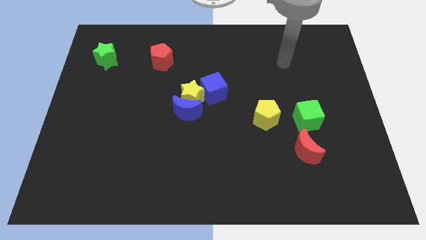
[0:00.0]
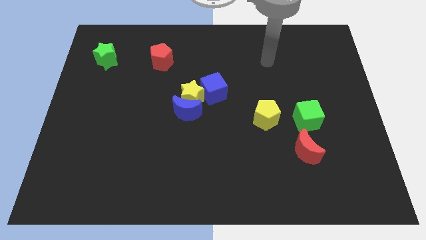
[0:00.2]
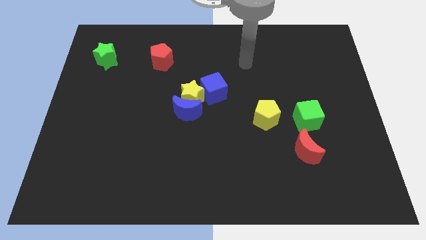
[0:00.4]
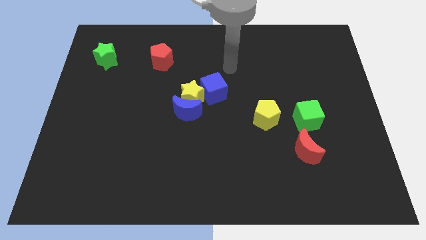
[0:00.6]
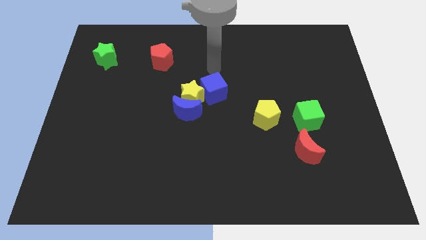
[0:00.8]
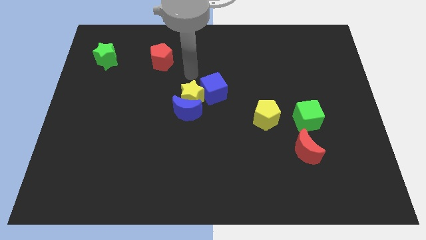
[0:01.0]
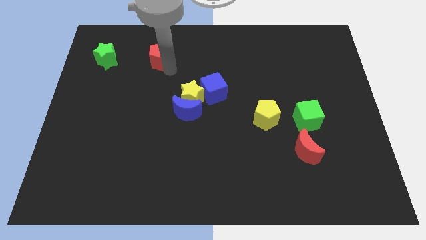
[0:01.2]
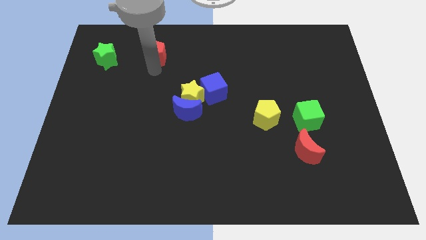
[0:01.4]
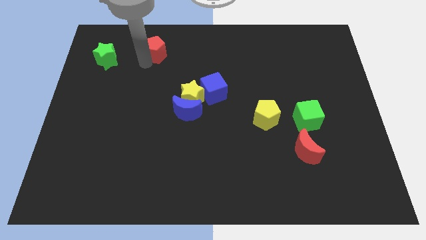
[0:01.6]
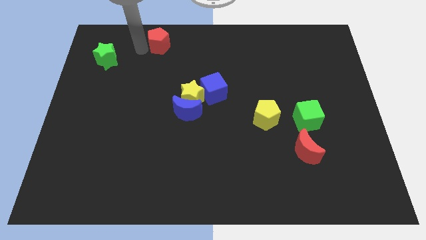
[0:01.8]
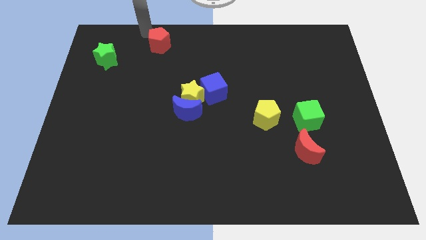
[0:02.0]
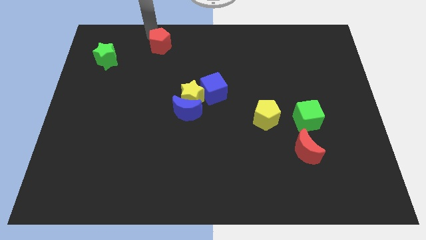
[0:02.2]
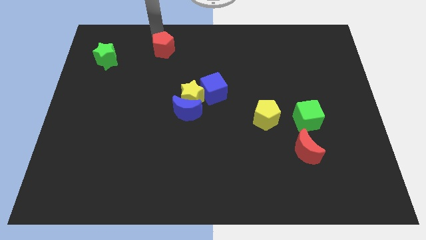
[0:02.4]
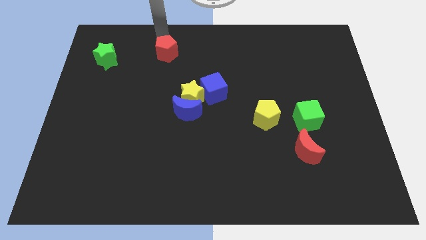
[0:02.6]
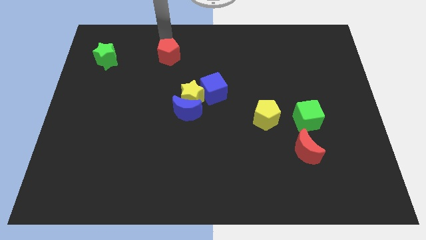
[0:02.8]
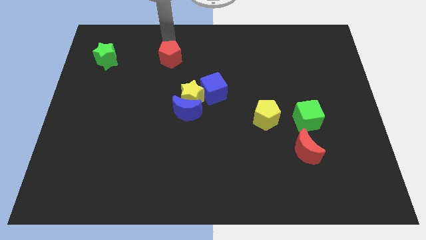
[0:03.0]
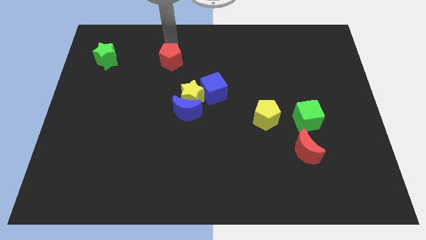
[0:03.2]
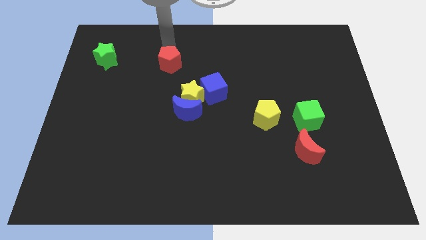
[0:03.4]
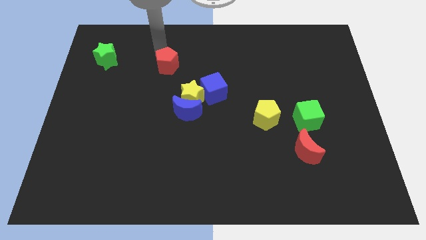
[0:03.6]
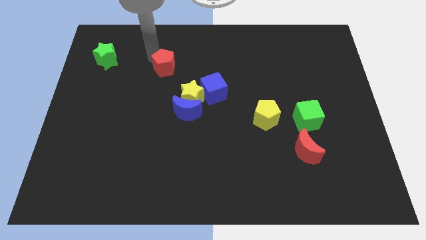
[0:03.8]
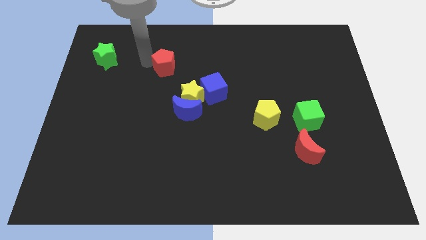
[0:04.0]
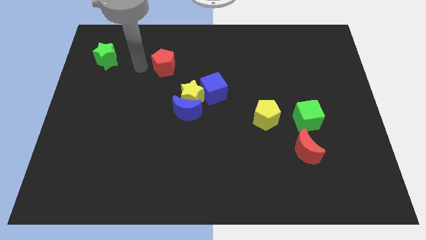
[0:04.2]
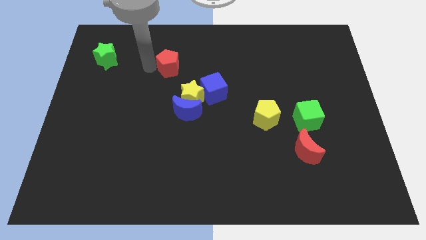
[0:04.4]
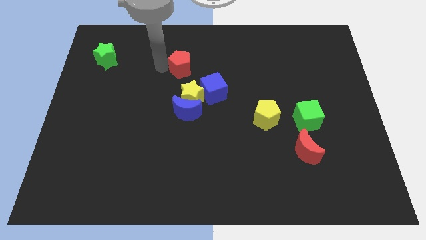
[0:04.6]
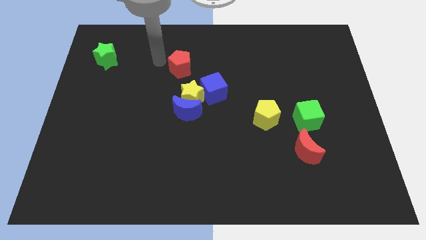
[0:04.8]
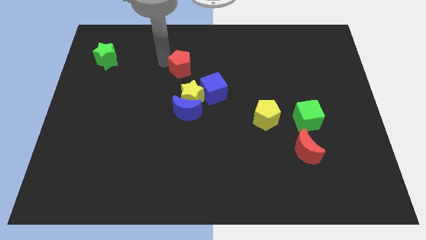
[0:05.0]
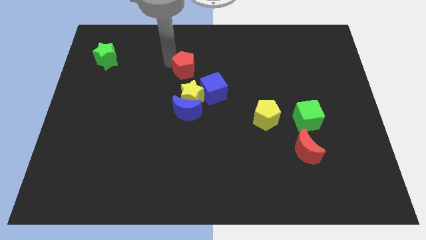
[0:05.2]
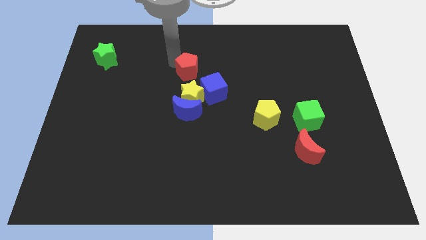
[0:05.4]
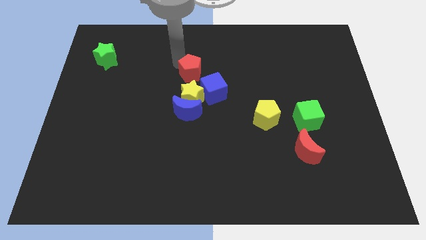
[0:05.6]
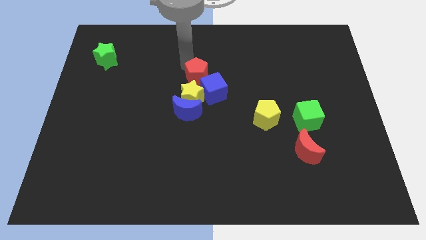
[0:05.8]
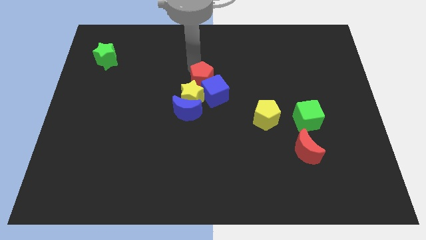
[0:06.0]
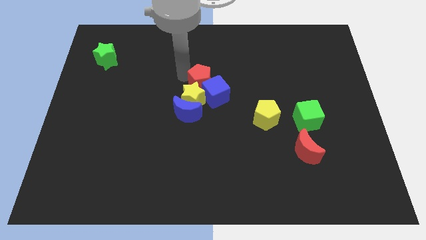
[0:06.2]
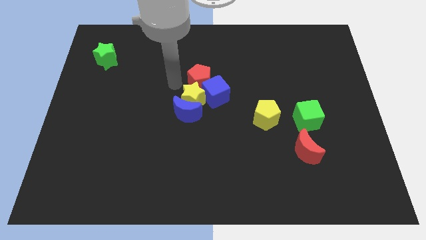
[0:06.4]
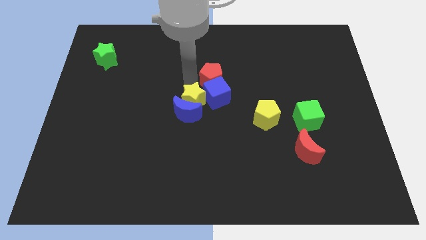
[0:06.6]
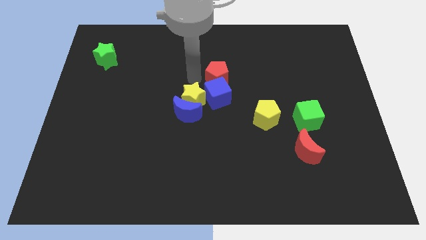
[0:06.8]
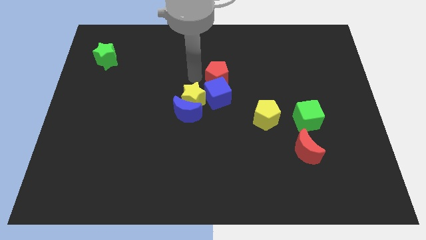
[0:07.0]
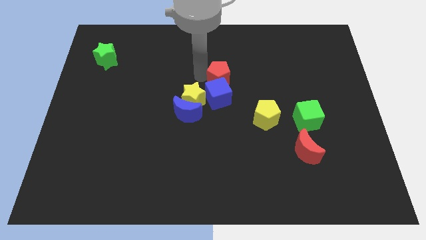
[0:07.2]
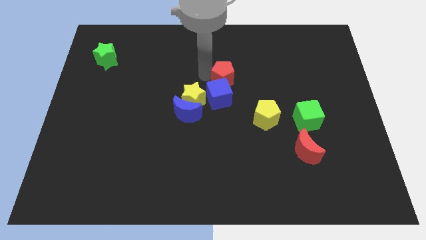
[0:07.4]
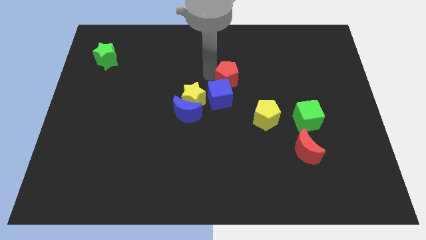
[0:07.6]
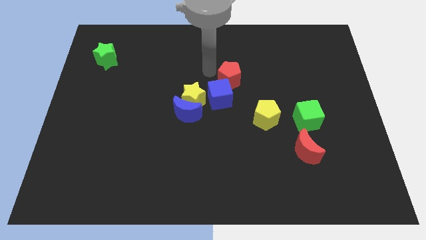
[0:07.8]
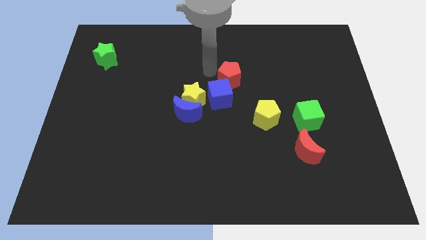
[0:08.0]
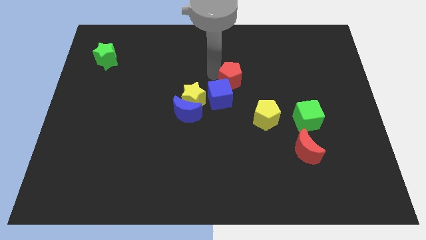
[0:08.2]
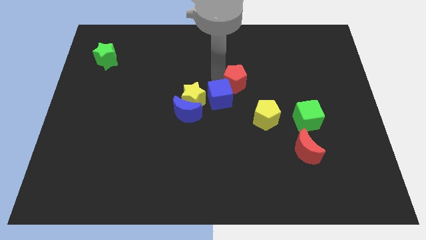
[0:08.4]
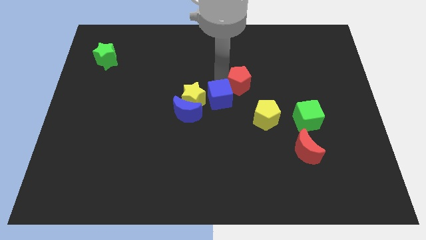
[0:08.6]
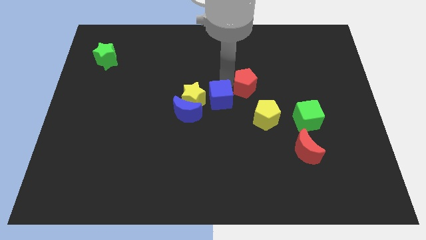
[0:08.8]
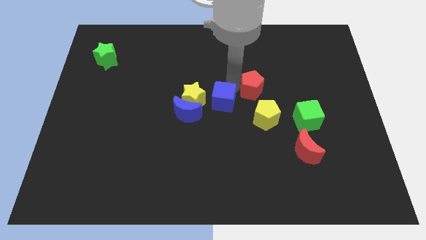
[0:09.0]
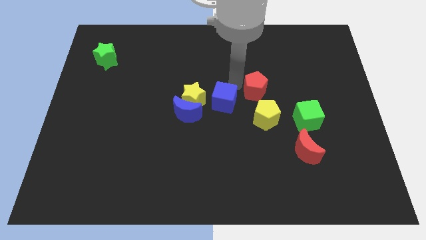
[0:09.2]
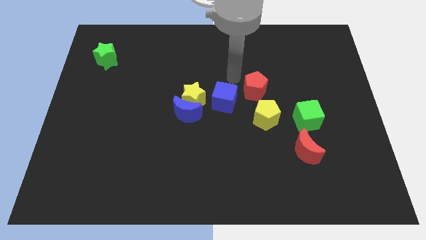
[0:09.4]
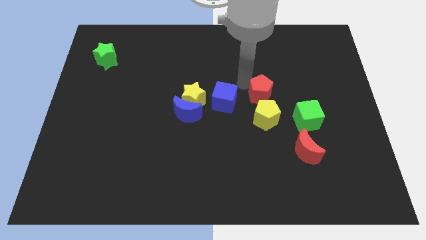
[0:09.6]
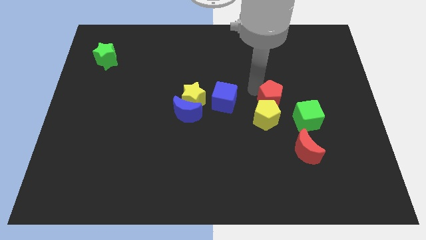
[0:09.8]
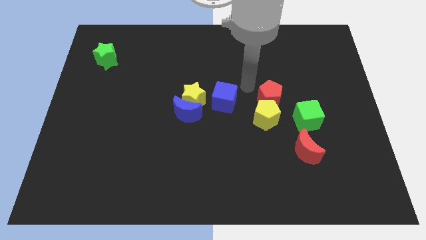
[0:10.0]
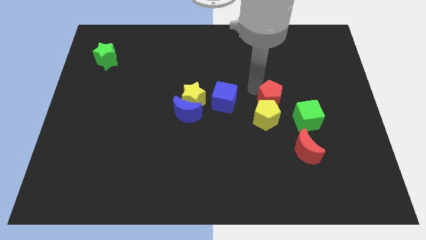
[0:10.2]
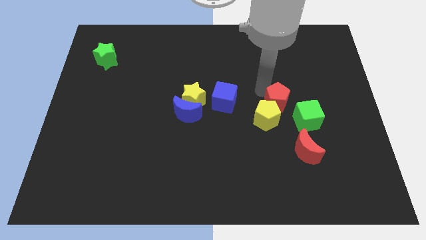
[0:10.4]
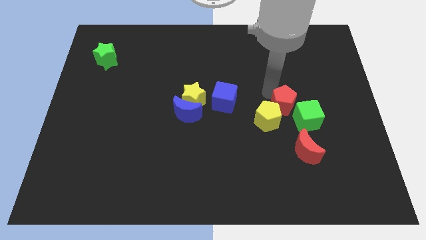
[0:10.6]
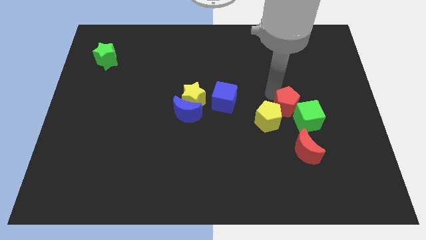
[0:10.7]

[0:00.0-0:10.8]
put the red pentagon towards the green cube

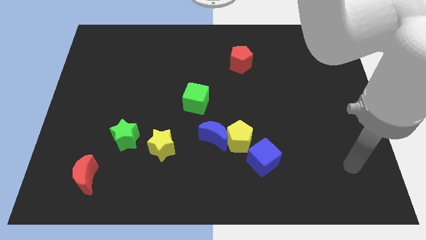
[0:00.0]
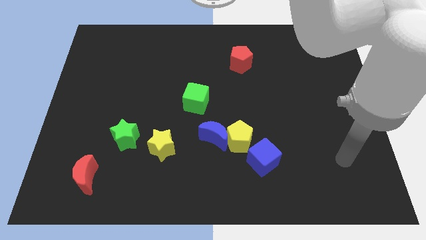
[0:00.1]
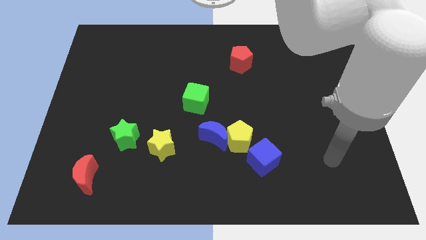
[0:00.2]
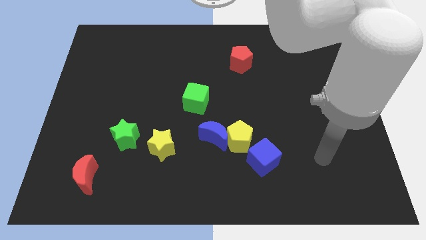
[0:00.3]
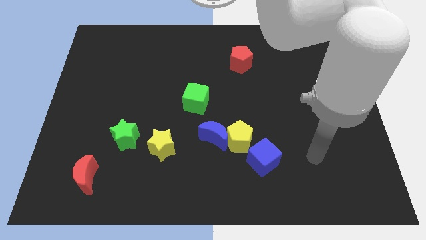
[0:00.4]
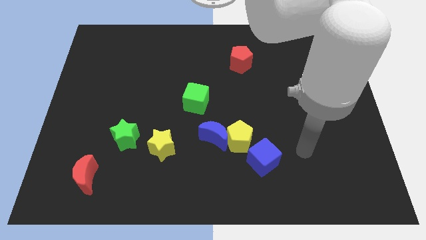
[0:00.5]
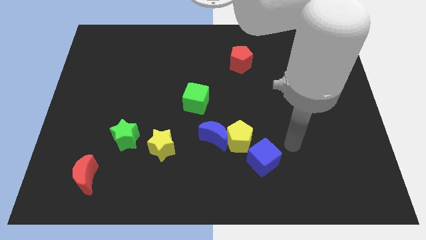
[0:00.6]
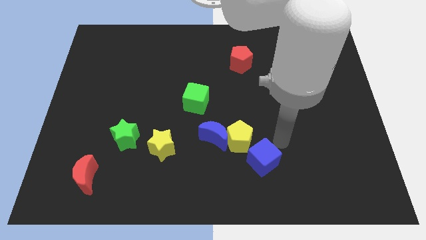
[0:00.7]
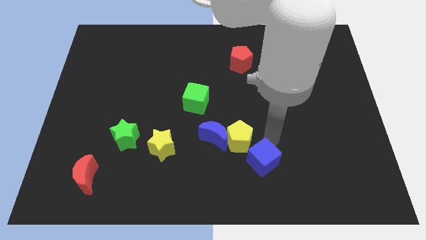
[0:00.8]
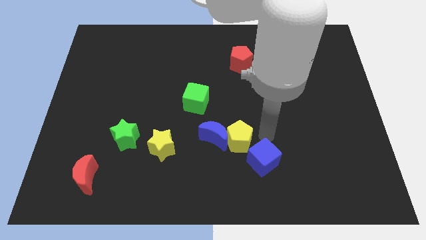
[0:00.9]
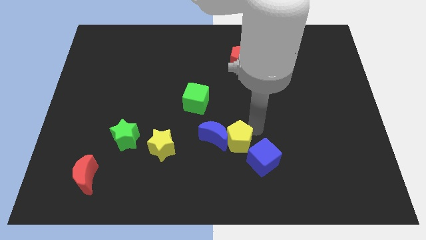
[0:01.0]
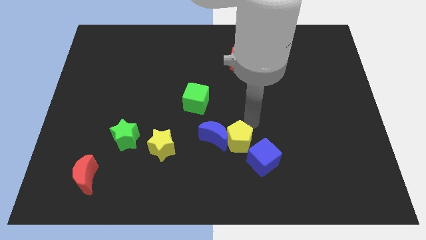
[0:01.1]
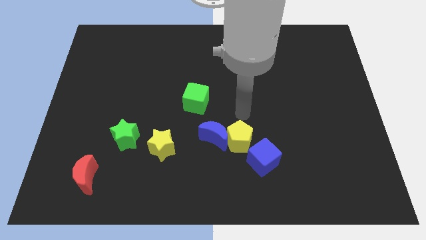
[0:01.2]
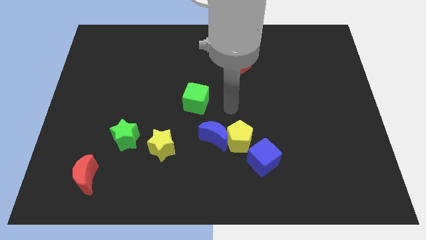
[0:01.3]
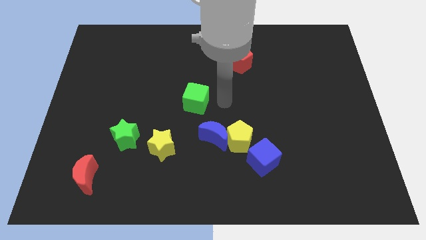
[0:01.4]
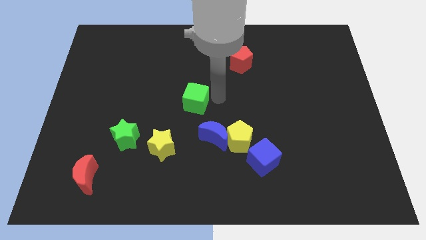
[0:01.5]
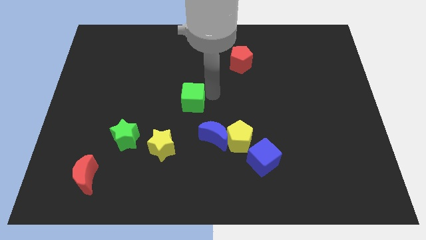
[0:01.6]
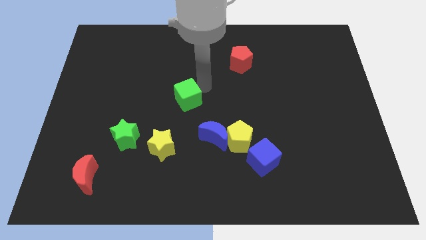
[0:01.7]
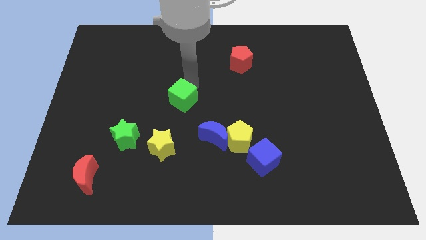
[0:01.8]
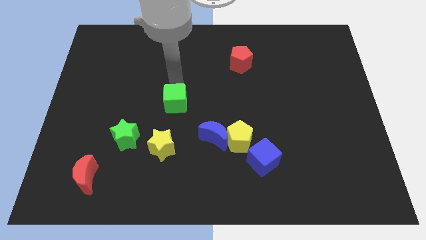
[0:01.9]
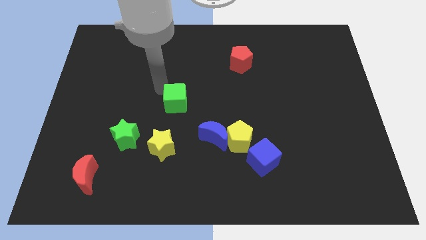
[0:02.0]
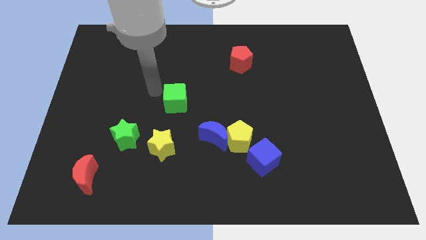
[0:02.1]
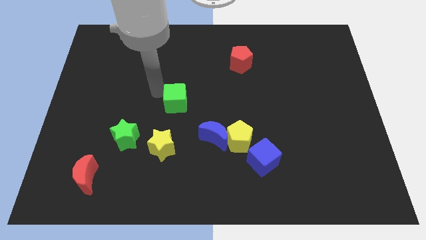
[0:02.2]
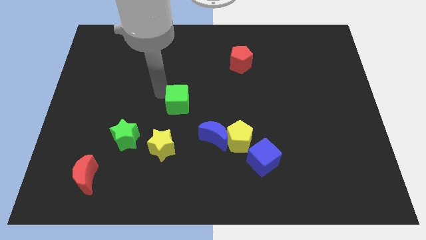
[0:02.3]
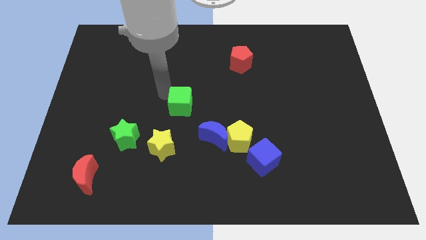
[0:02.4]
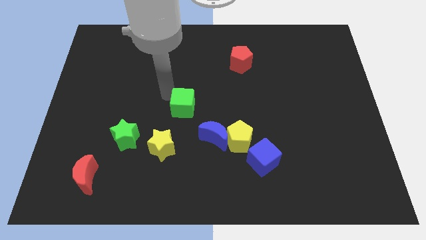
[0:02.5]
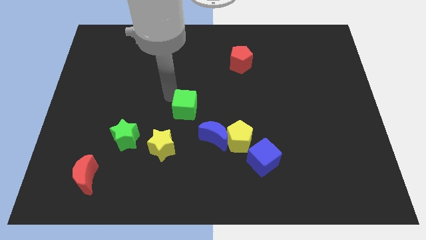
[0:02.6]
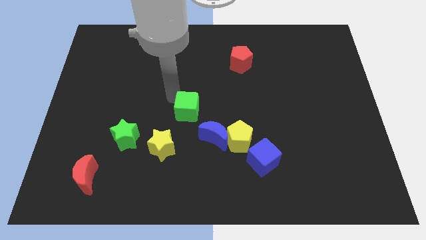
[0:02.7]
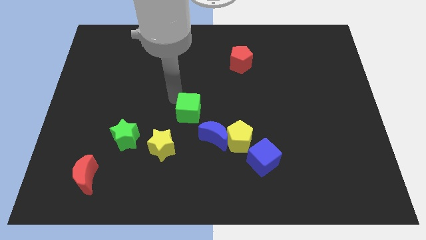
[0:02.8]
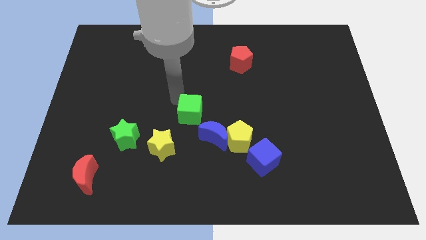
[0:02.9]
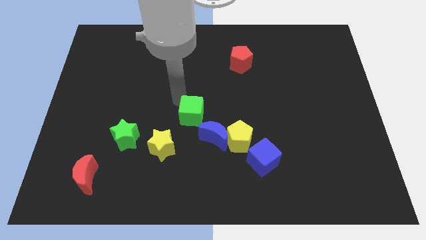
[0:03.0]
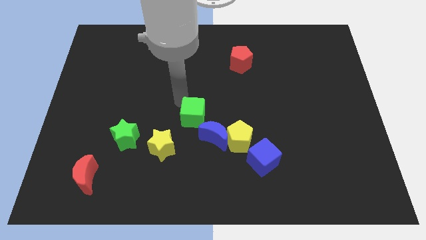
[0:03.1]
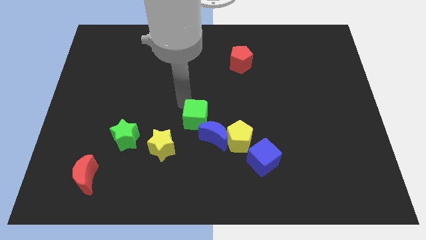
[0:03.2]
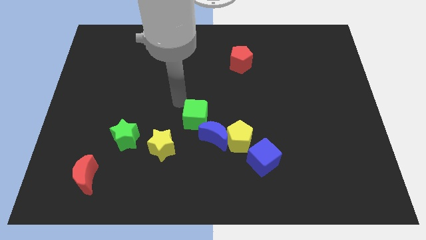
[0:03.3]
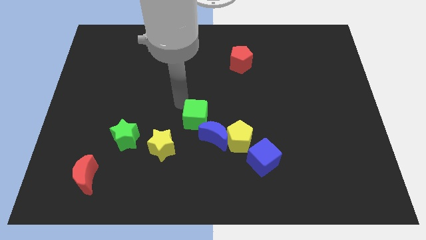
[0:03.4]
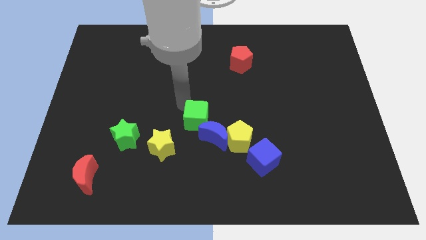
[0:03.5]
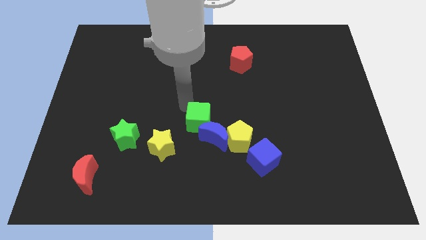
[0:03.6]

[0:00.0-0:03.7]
push the green cube towards the blue moon
